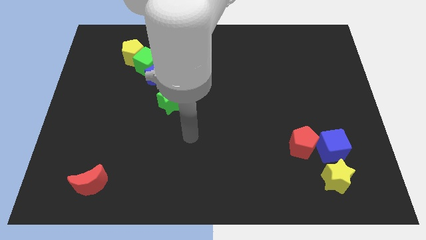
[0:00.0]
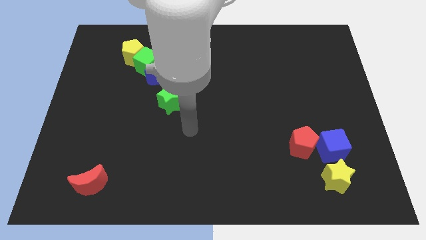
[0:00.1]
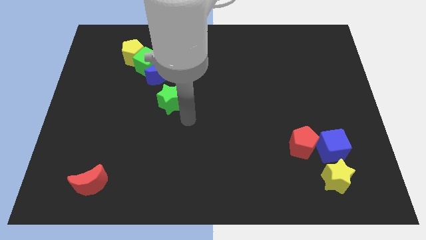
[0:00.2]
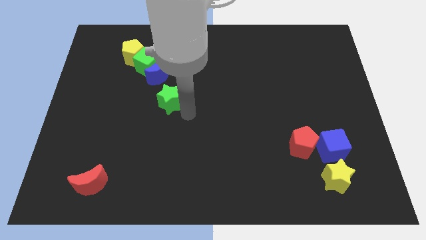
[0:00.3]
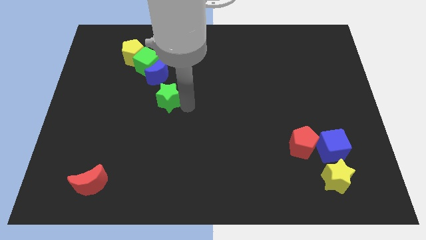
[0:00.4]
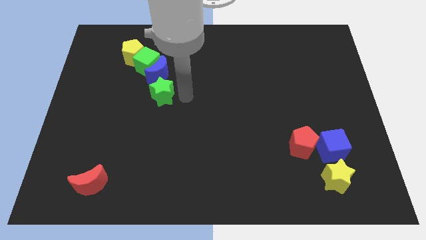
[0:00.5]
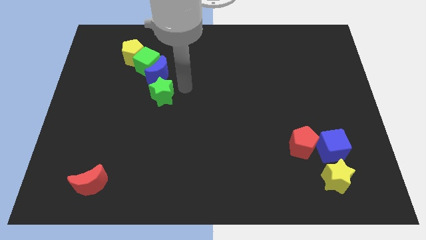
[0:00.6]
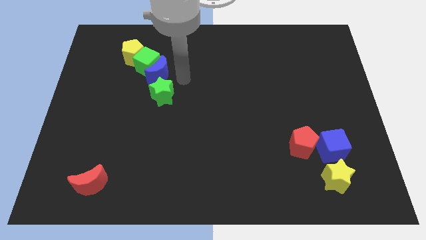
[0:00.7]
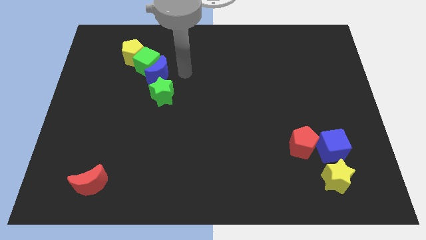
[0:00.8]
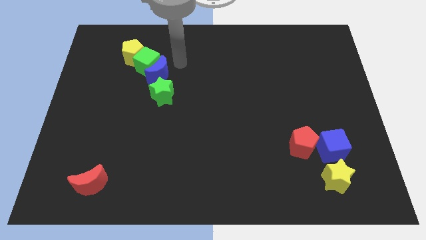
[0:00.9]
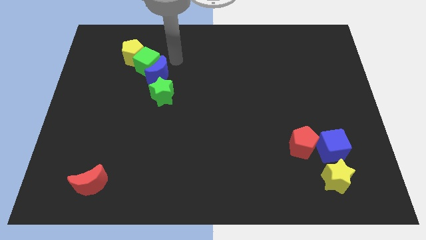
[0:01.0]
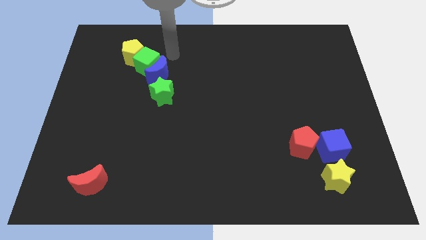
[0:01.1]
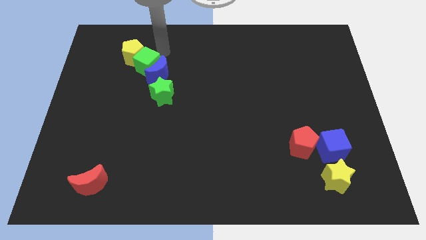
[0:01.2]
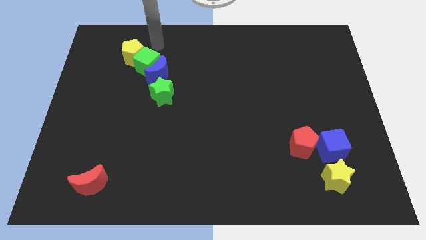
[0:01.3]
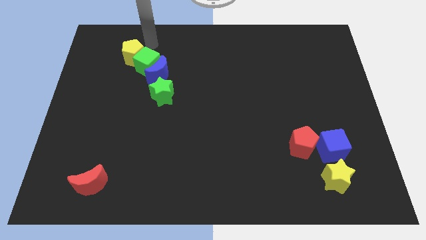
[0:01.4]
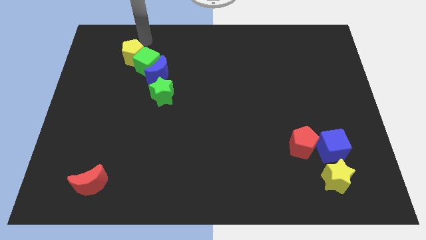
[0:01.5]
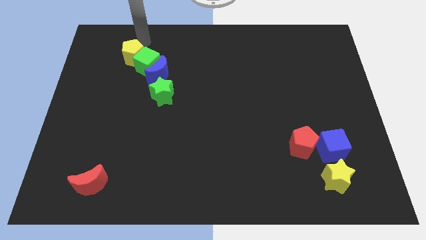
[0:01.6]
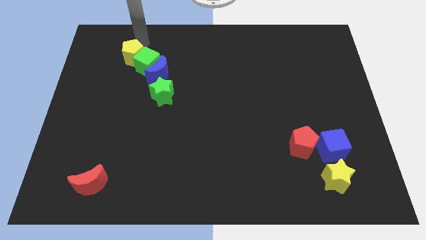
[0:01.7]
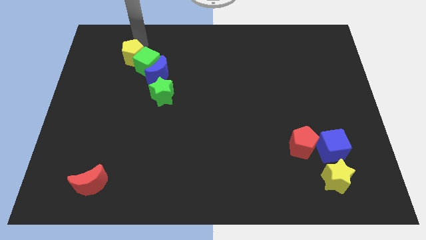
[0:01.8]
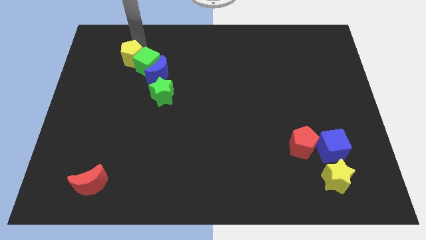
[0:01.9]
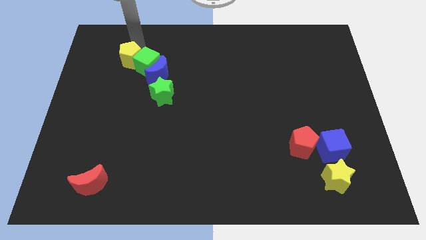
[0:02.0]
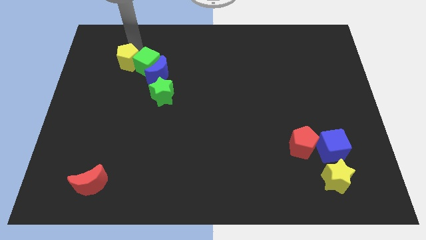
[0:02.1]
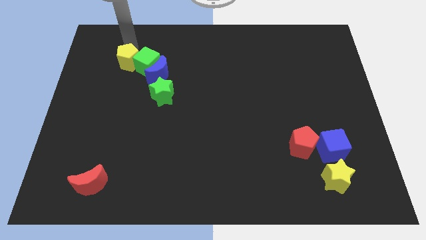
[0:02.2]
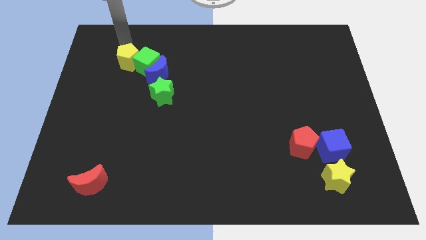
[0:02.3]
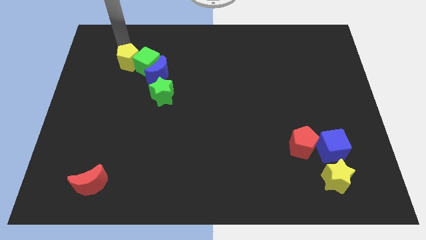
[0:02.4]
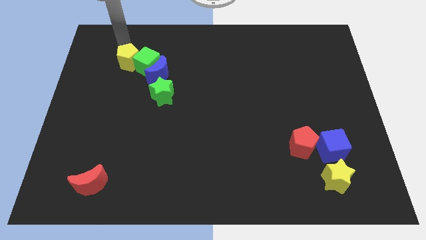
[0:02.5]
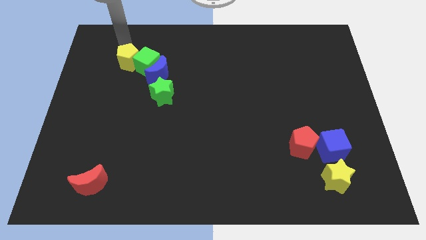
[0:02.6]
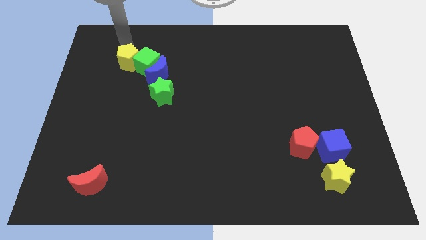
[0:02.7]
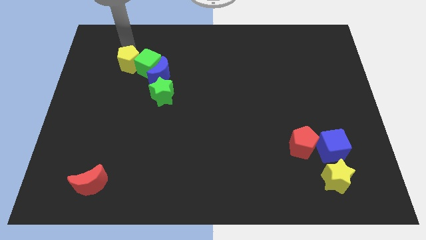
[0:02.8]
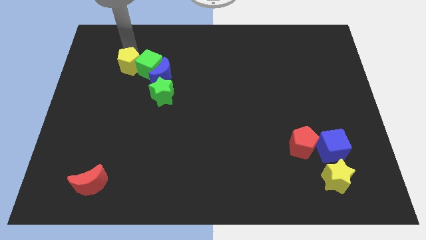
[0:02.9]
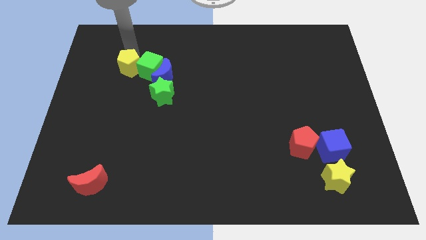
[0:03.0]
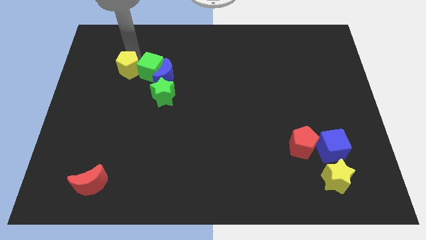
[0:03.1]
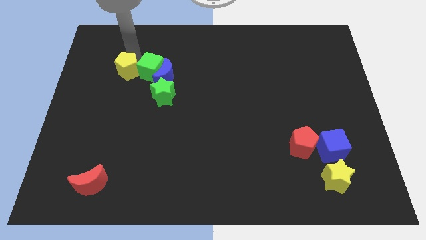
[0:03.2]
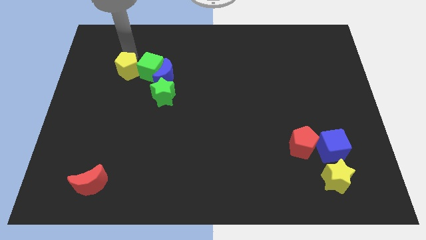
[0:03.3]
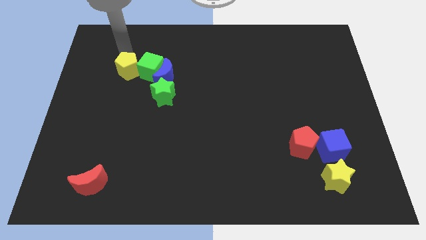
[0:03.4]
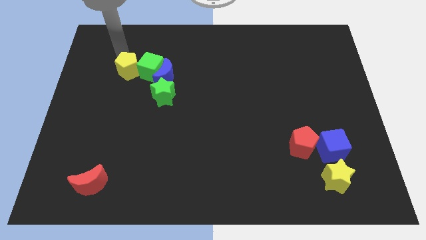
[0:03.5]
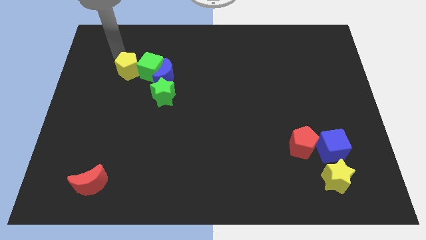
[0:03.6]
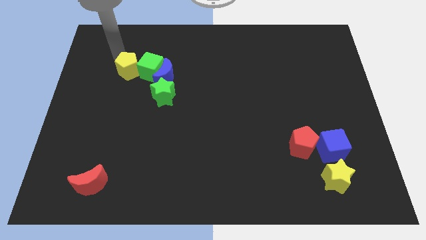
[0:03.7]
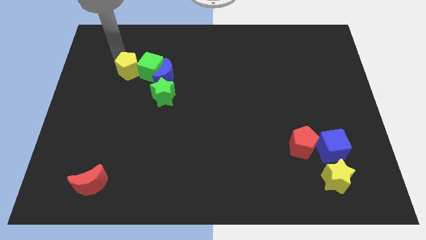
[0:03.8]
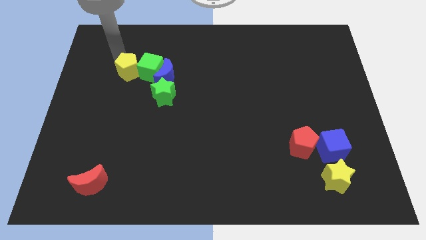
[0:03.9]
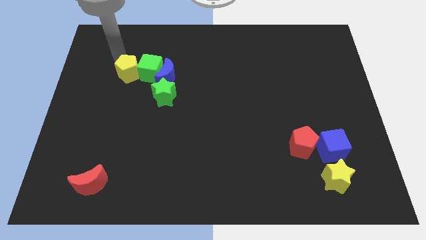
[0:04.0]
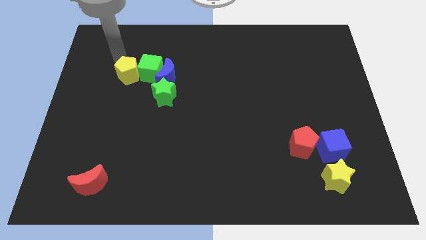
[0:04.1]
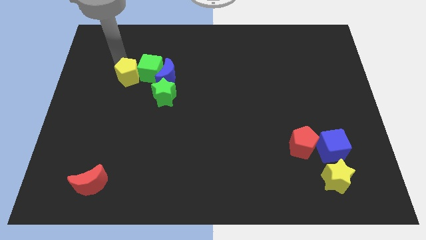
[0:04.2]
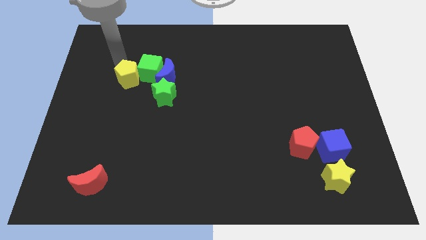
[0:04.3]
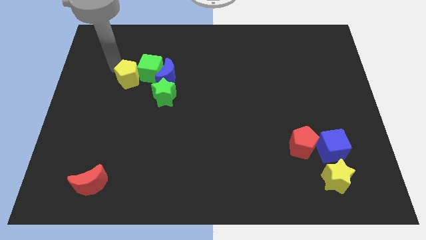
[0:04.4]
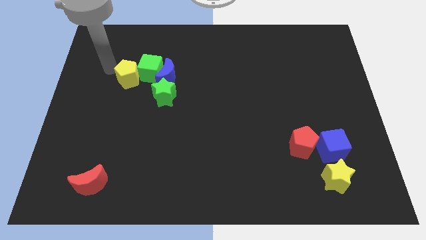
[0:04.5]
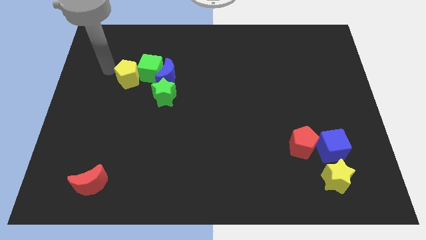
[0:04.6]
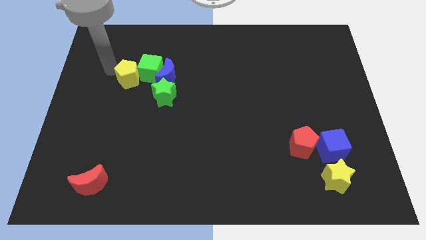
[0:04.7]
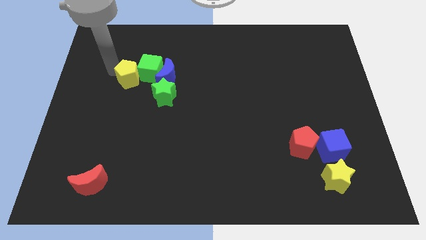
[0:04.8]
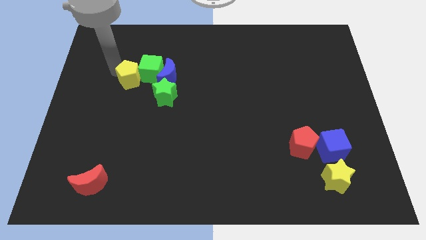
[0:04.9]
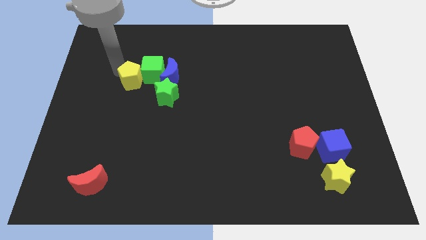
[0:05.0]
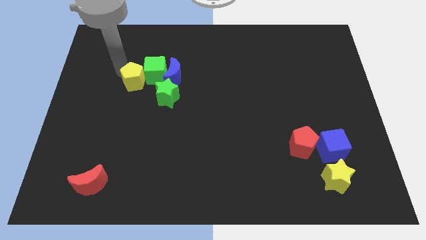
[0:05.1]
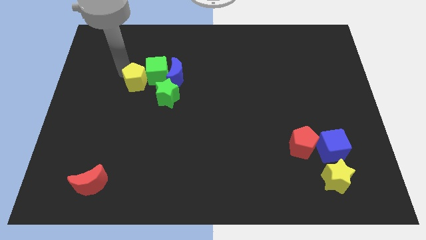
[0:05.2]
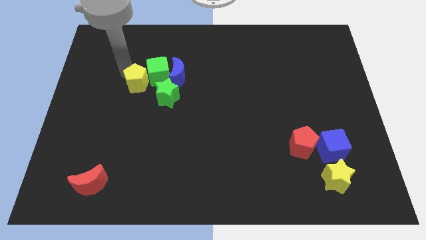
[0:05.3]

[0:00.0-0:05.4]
push the yellow pentagon a bit downwards and then to the right

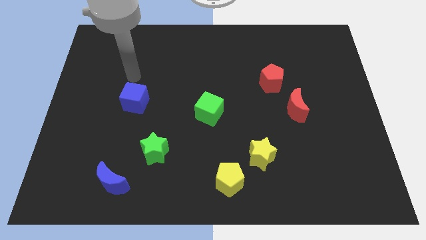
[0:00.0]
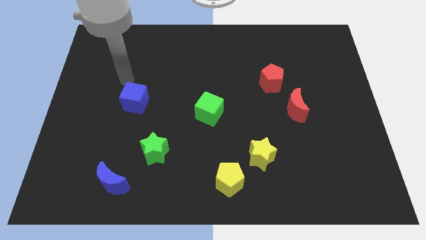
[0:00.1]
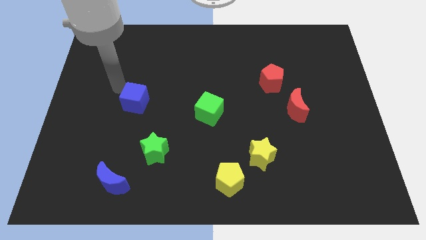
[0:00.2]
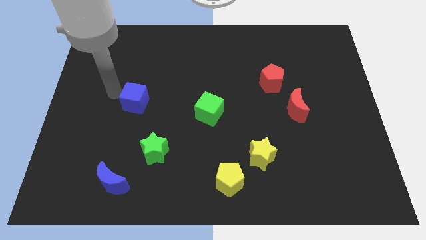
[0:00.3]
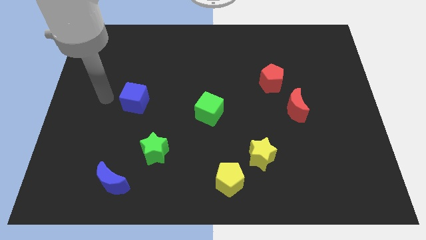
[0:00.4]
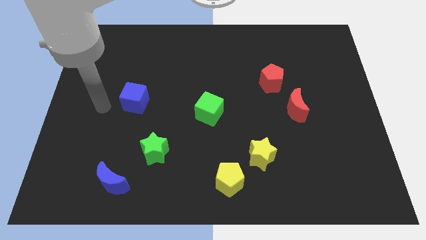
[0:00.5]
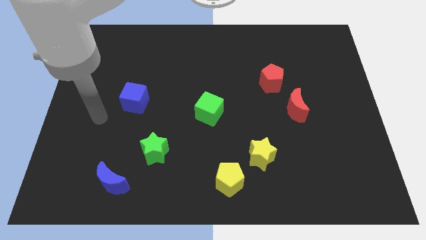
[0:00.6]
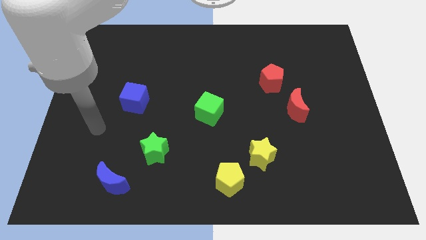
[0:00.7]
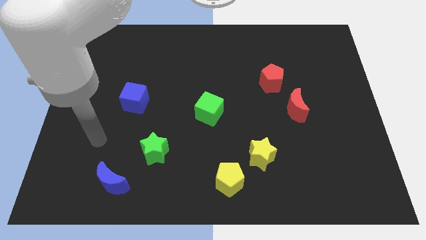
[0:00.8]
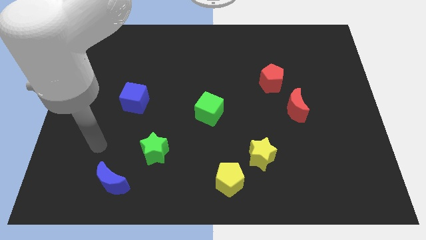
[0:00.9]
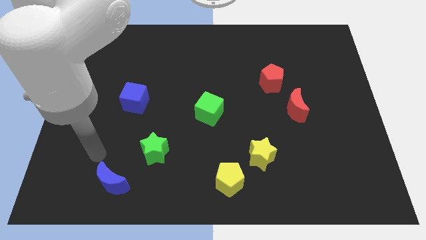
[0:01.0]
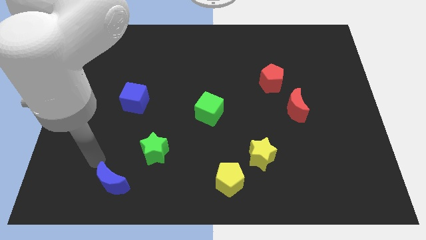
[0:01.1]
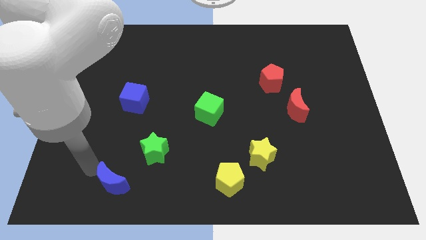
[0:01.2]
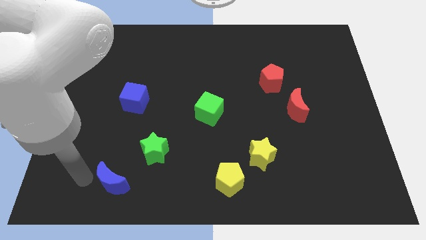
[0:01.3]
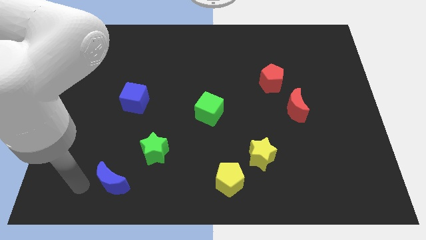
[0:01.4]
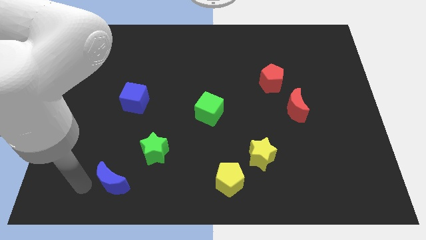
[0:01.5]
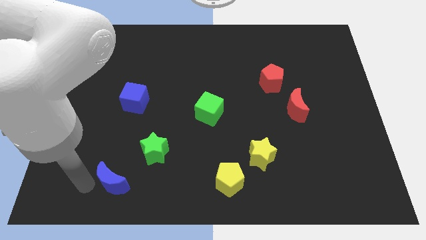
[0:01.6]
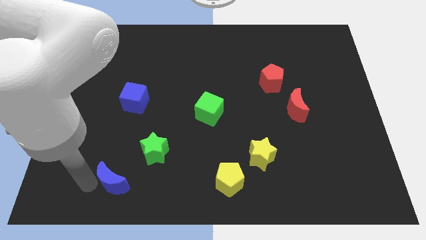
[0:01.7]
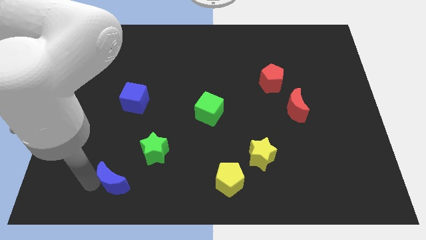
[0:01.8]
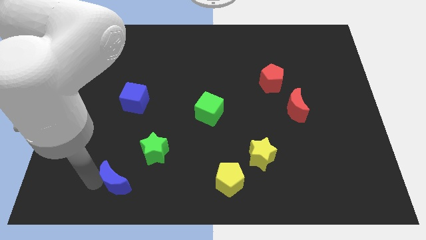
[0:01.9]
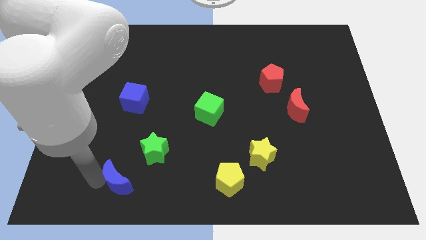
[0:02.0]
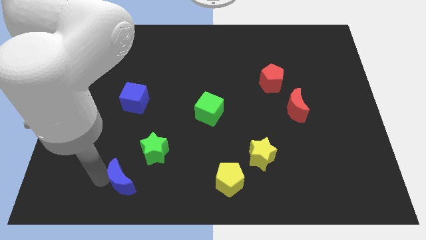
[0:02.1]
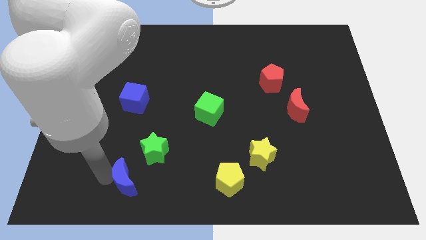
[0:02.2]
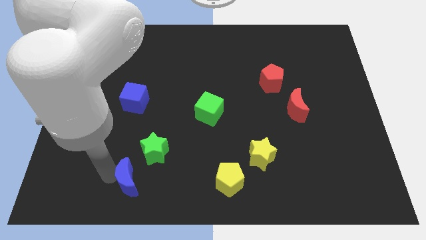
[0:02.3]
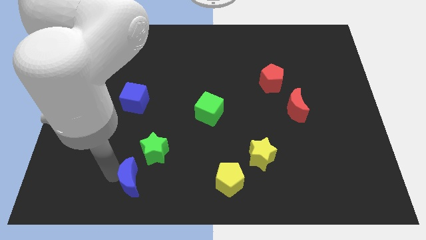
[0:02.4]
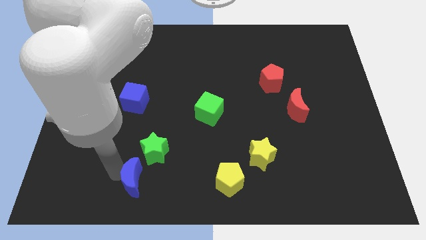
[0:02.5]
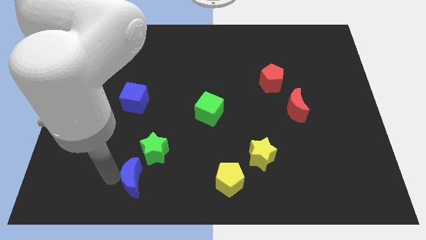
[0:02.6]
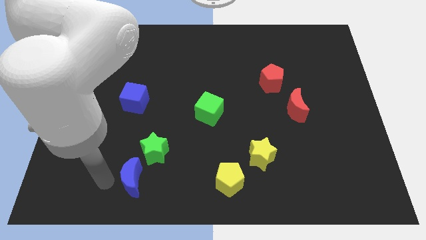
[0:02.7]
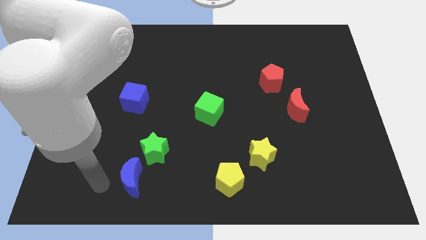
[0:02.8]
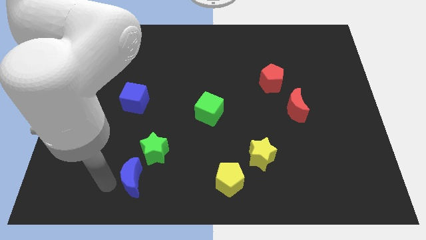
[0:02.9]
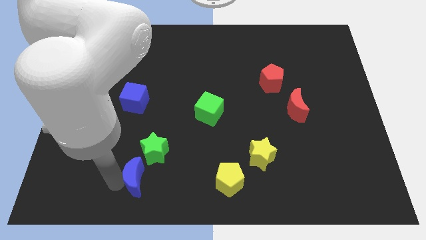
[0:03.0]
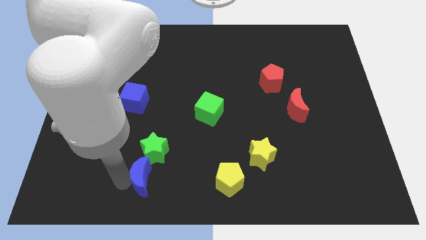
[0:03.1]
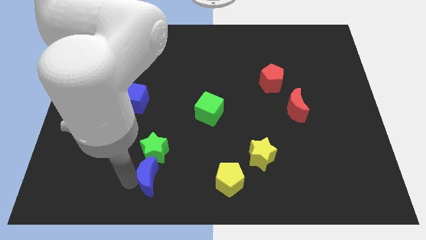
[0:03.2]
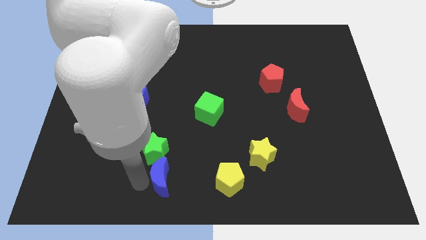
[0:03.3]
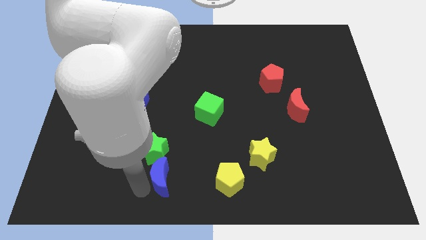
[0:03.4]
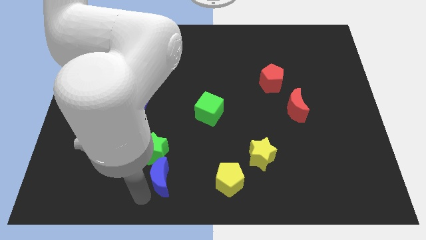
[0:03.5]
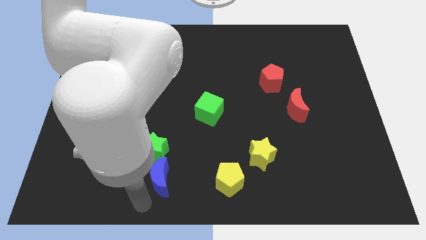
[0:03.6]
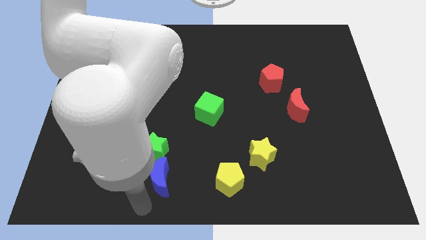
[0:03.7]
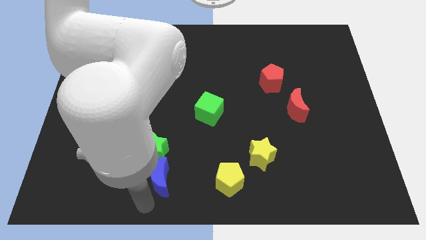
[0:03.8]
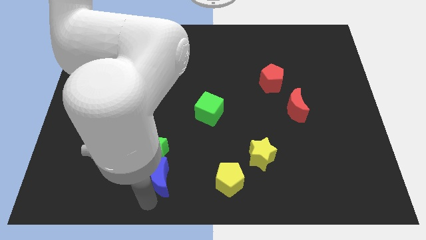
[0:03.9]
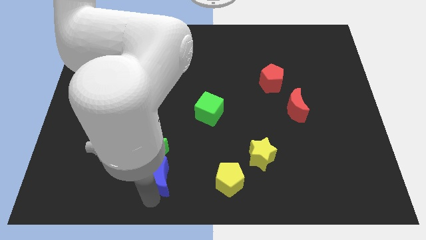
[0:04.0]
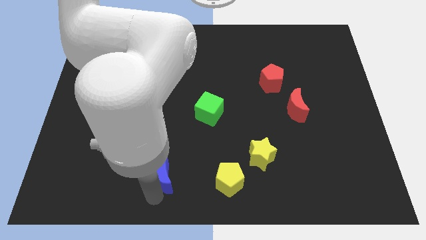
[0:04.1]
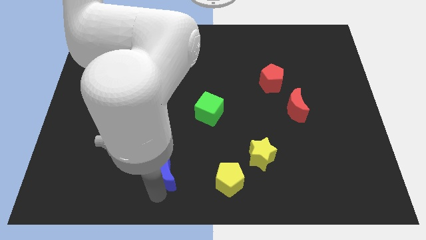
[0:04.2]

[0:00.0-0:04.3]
move the blue moon diagonally up and right a bit
